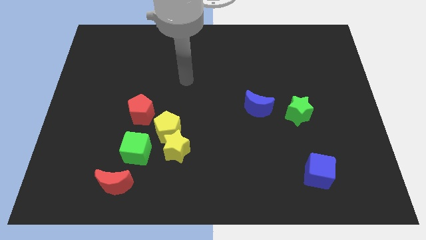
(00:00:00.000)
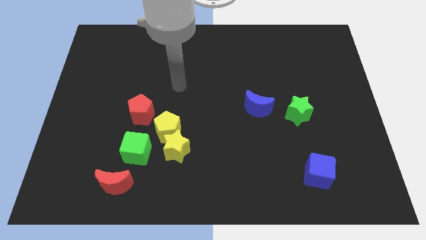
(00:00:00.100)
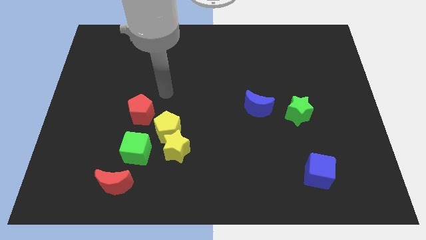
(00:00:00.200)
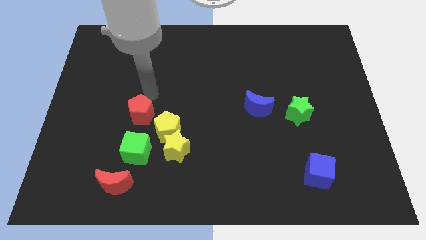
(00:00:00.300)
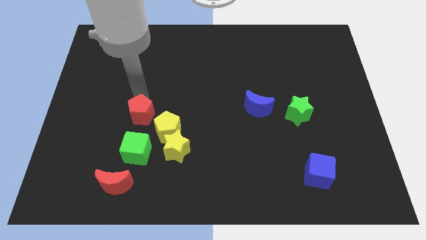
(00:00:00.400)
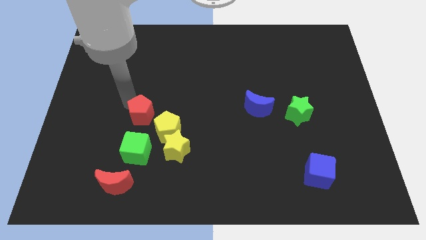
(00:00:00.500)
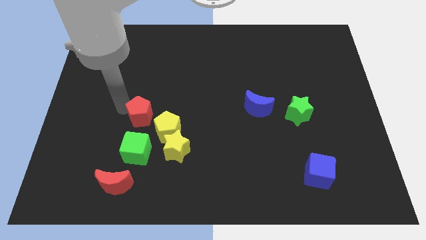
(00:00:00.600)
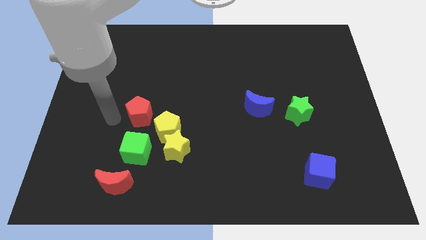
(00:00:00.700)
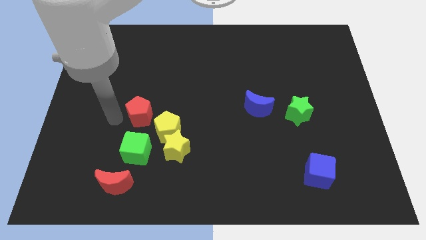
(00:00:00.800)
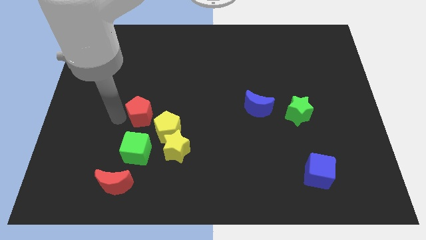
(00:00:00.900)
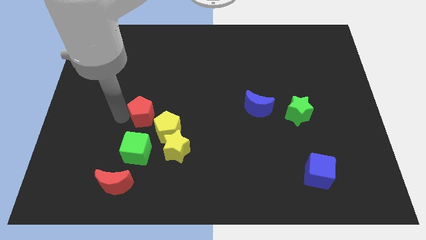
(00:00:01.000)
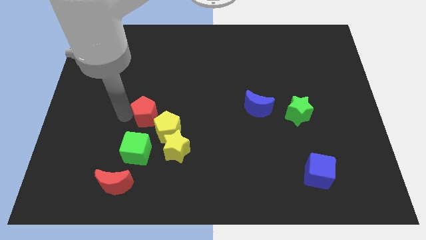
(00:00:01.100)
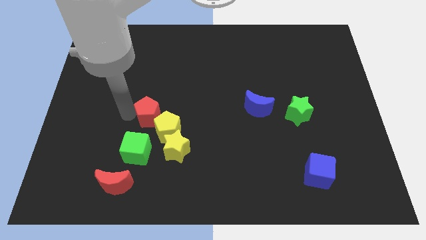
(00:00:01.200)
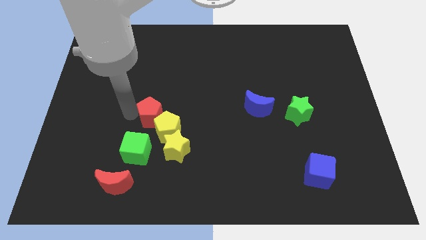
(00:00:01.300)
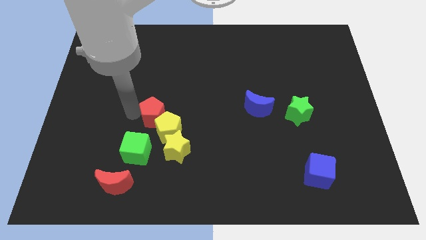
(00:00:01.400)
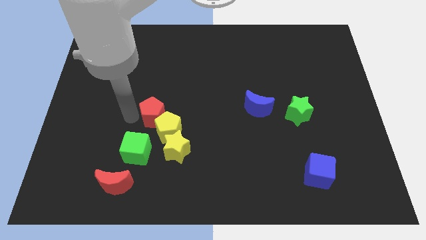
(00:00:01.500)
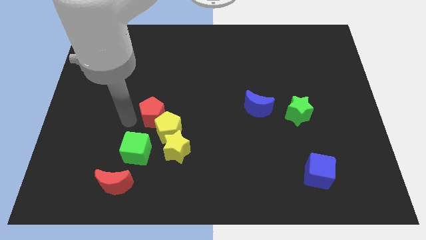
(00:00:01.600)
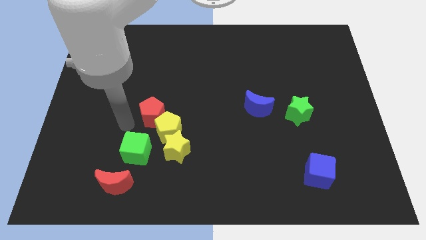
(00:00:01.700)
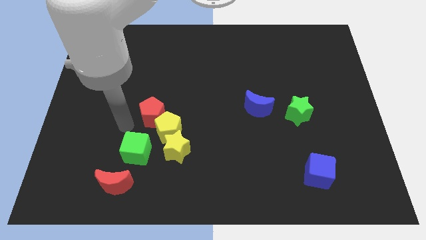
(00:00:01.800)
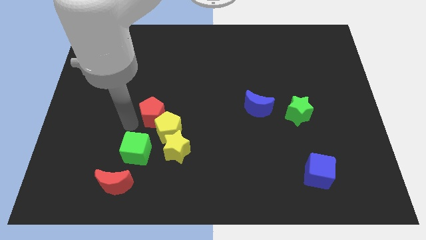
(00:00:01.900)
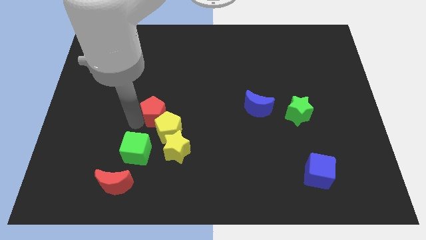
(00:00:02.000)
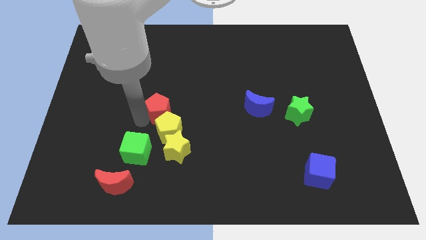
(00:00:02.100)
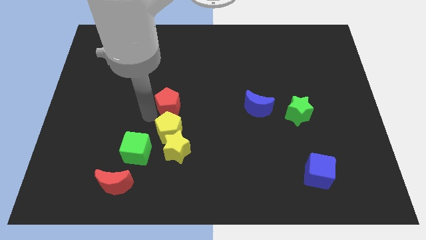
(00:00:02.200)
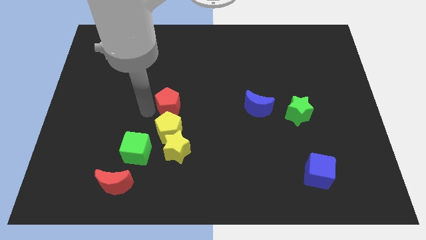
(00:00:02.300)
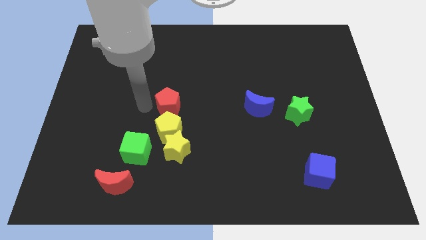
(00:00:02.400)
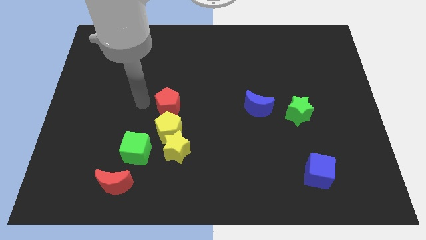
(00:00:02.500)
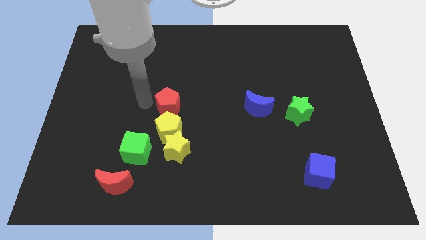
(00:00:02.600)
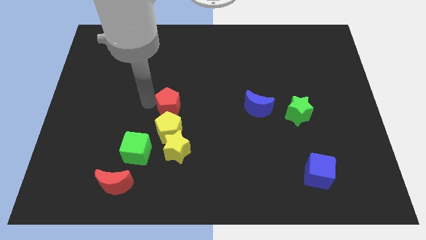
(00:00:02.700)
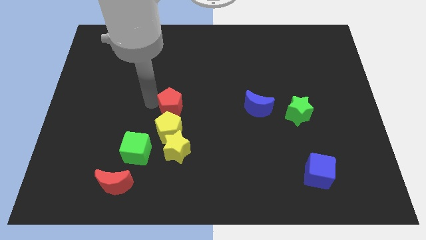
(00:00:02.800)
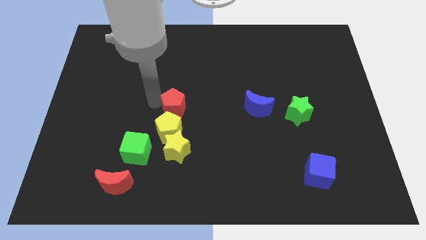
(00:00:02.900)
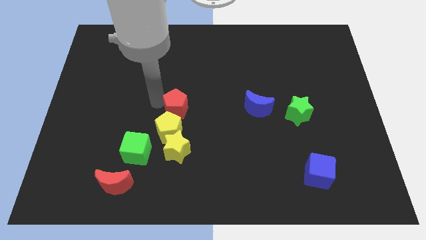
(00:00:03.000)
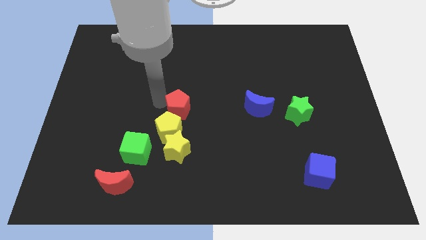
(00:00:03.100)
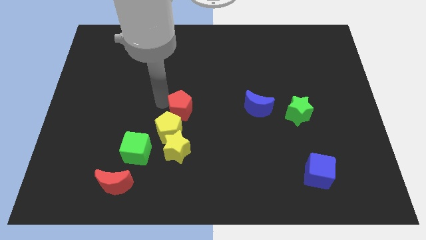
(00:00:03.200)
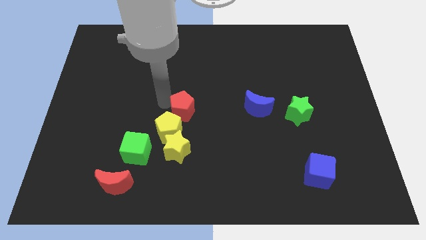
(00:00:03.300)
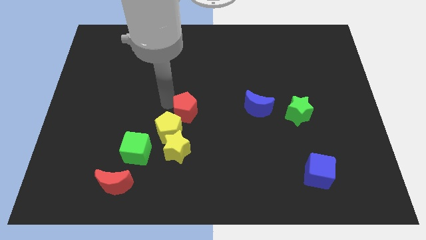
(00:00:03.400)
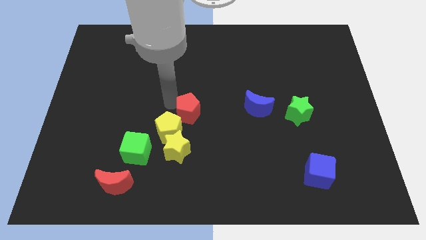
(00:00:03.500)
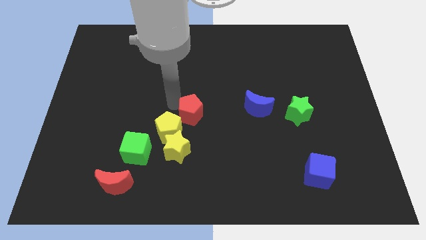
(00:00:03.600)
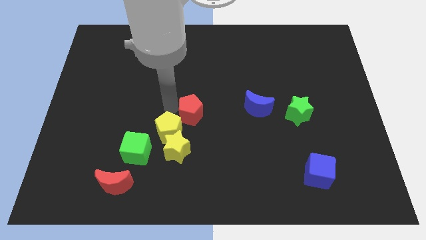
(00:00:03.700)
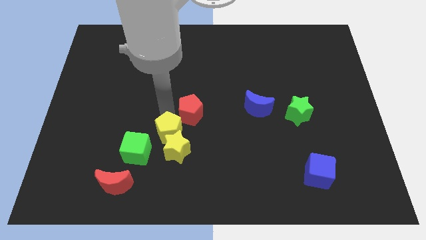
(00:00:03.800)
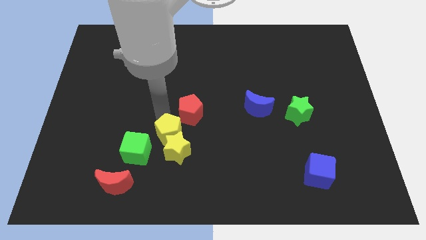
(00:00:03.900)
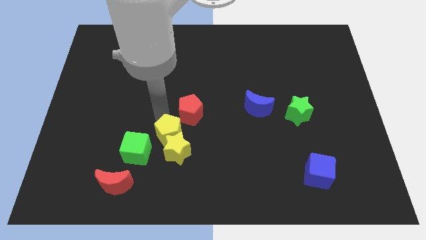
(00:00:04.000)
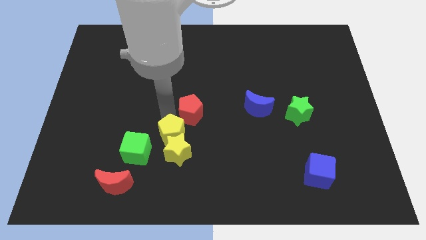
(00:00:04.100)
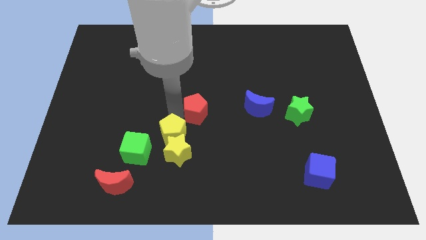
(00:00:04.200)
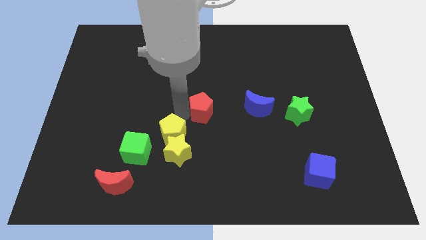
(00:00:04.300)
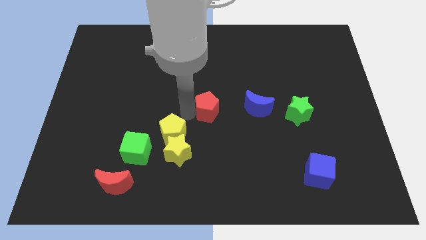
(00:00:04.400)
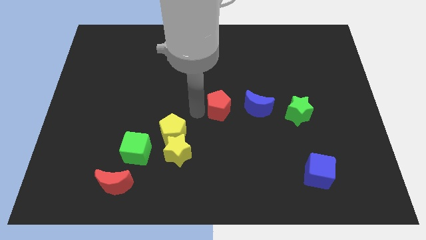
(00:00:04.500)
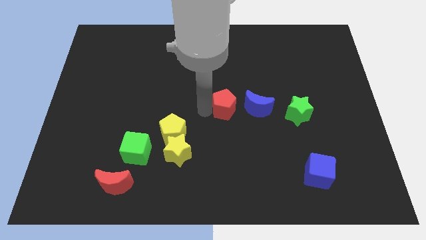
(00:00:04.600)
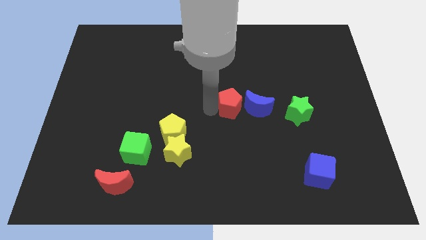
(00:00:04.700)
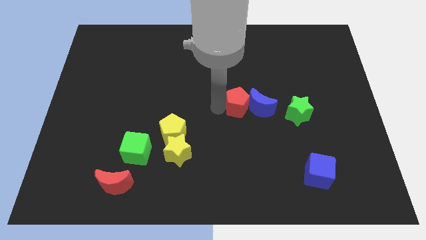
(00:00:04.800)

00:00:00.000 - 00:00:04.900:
push the red pentagon close to the blue moon

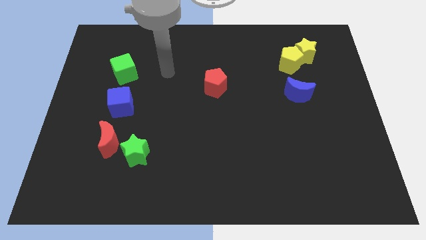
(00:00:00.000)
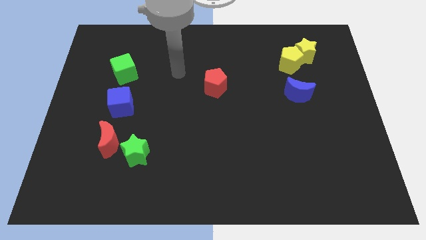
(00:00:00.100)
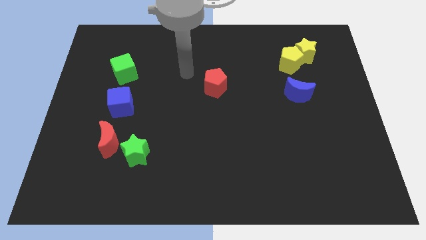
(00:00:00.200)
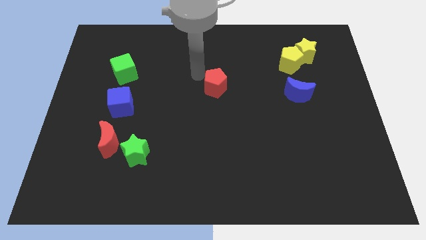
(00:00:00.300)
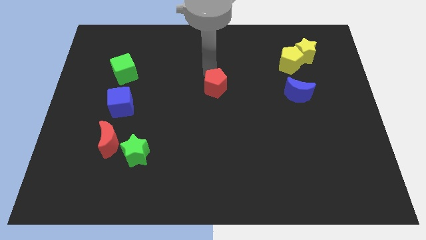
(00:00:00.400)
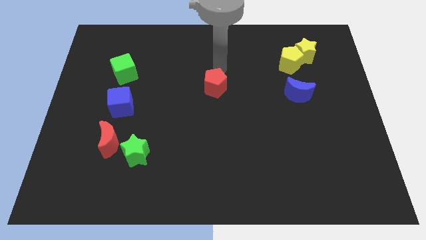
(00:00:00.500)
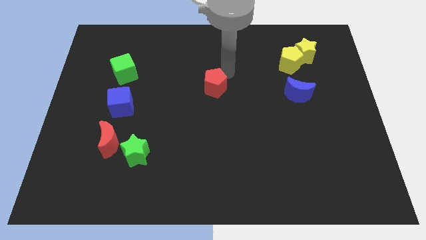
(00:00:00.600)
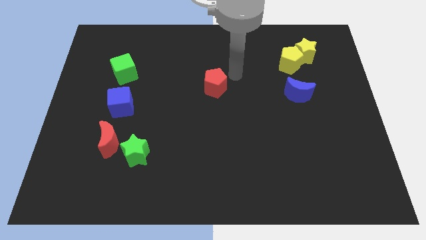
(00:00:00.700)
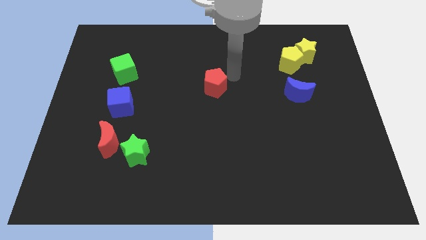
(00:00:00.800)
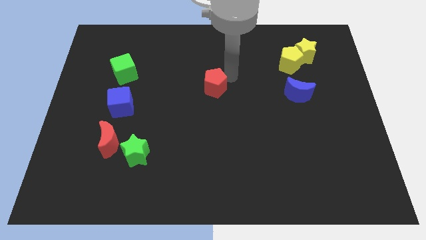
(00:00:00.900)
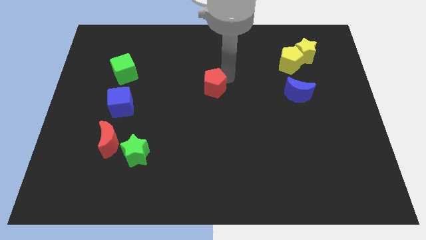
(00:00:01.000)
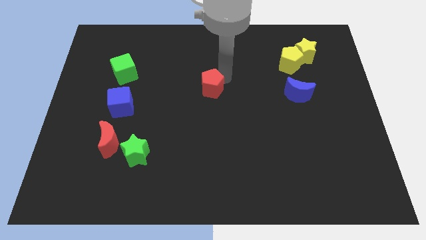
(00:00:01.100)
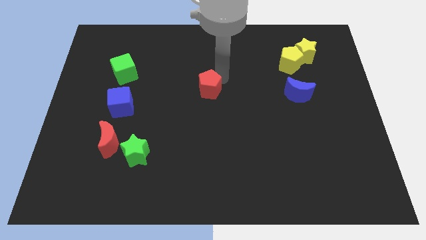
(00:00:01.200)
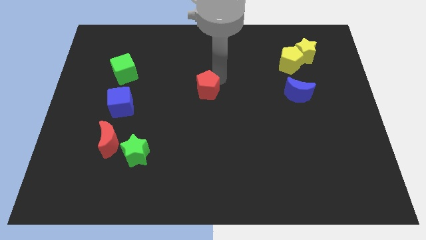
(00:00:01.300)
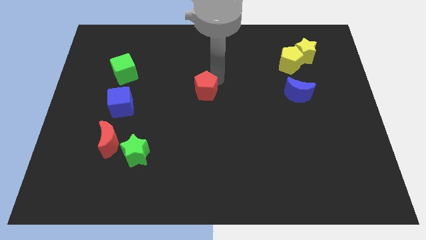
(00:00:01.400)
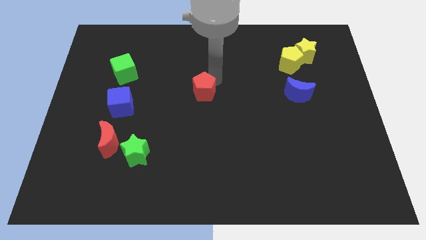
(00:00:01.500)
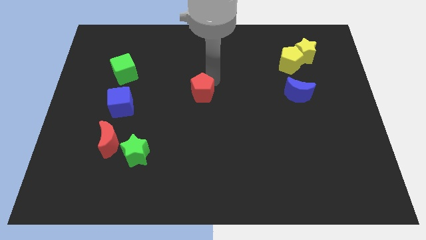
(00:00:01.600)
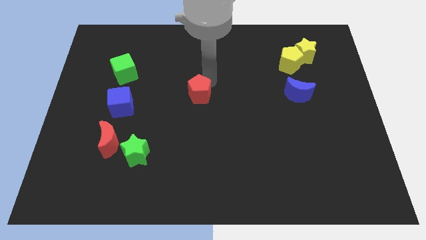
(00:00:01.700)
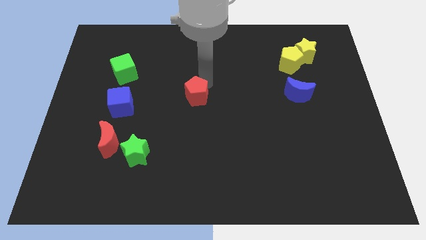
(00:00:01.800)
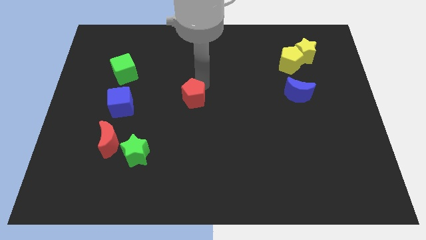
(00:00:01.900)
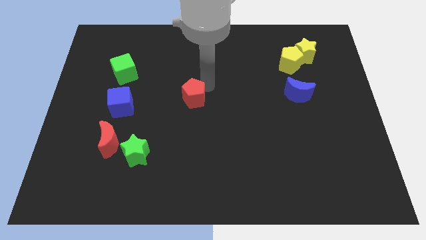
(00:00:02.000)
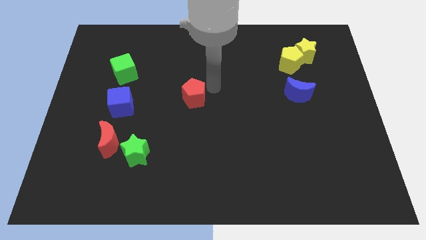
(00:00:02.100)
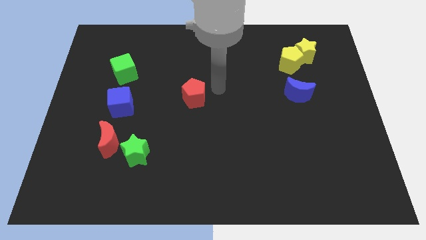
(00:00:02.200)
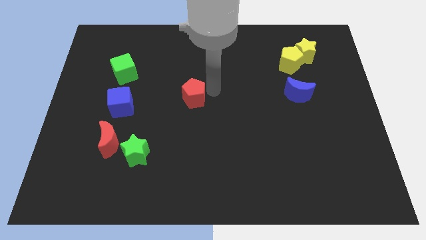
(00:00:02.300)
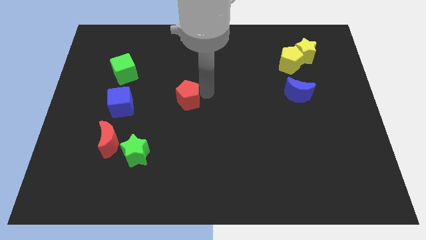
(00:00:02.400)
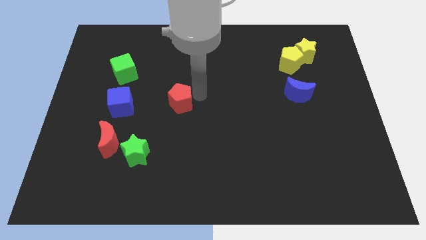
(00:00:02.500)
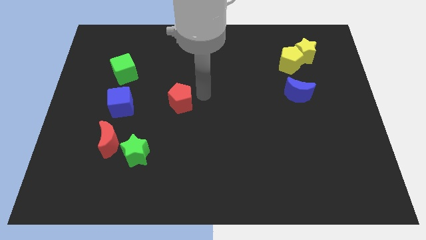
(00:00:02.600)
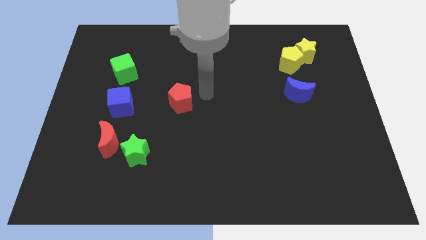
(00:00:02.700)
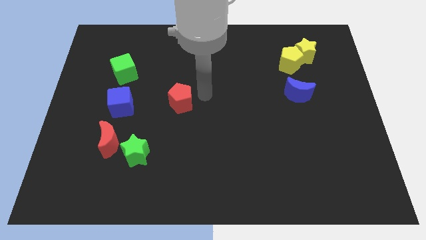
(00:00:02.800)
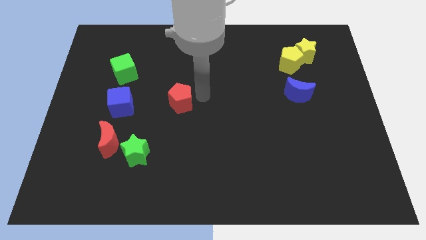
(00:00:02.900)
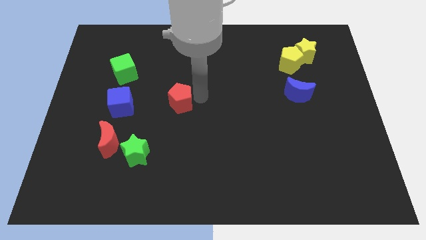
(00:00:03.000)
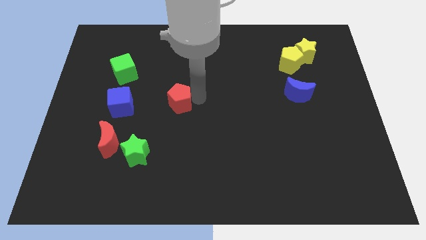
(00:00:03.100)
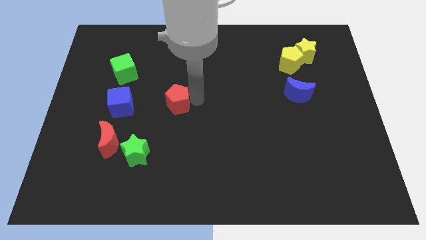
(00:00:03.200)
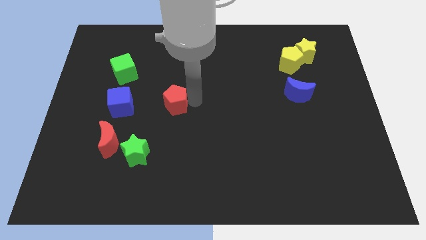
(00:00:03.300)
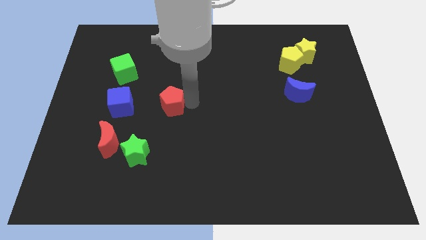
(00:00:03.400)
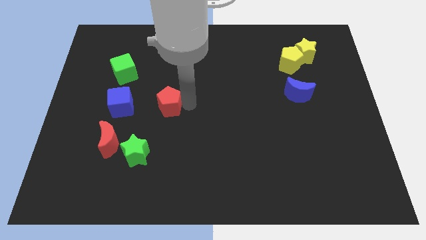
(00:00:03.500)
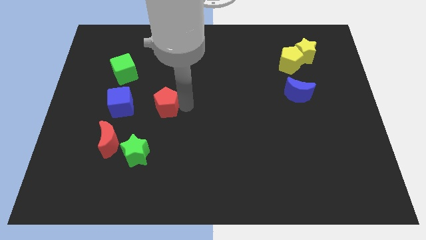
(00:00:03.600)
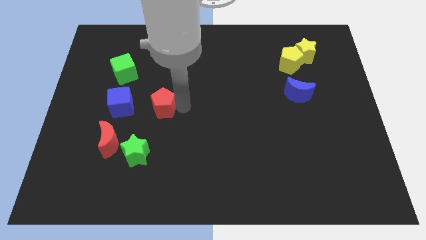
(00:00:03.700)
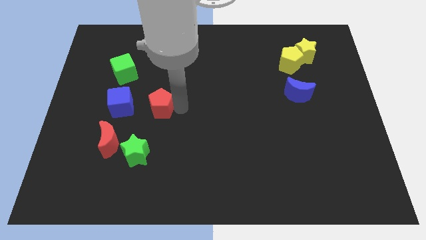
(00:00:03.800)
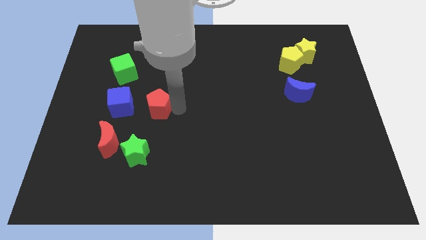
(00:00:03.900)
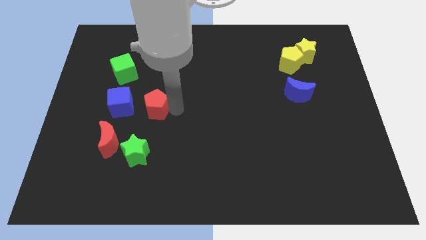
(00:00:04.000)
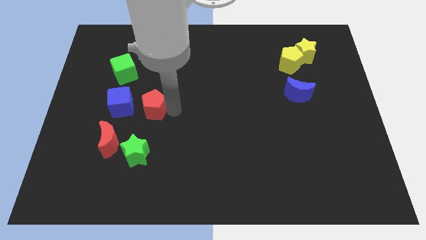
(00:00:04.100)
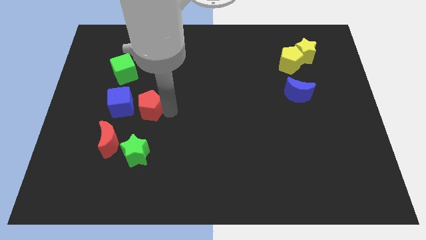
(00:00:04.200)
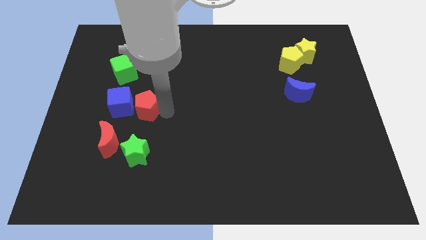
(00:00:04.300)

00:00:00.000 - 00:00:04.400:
put the red pentagon towards the blue cube
